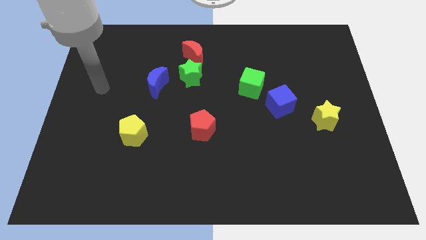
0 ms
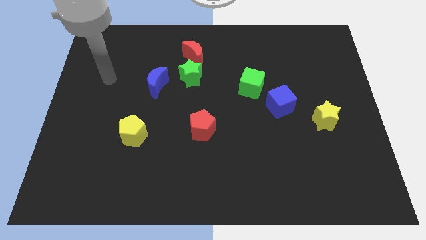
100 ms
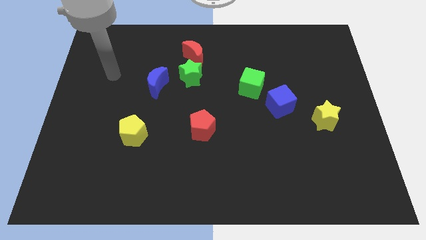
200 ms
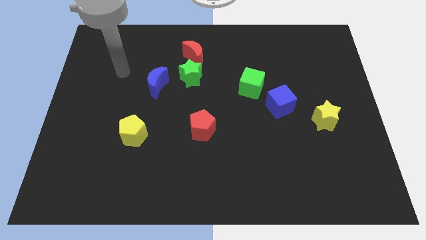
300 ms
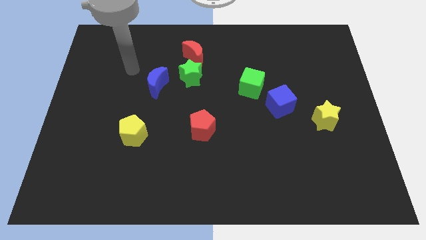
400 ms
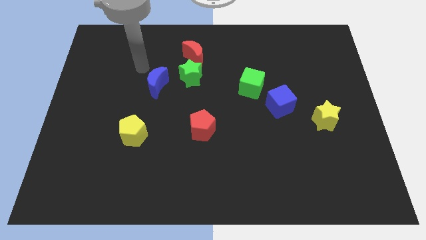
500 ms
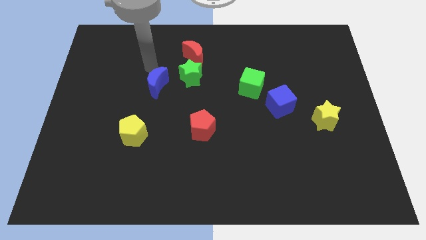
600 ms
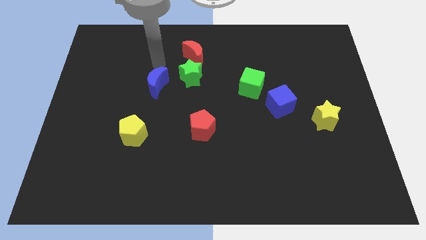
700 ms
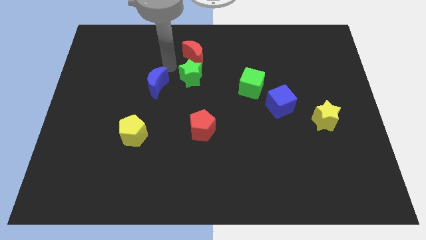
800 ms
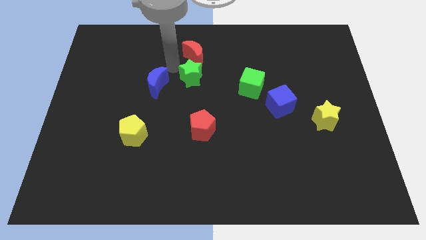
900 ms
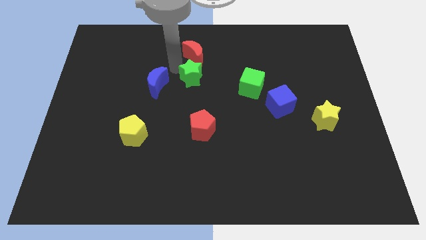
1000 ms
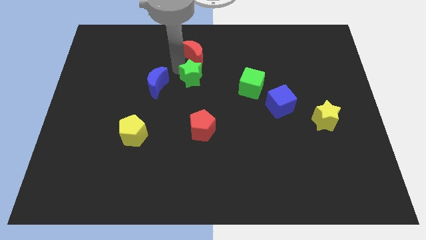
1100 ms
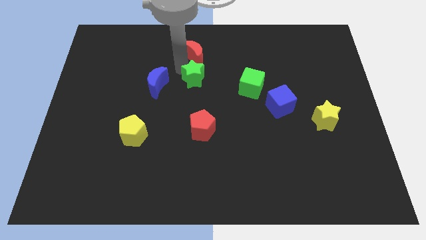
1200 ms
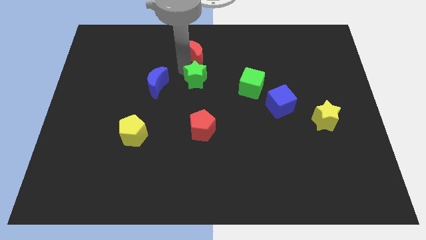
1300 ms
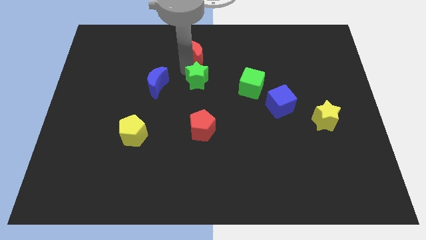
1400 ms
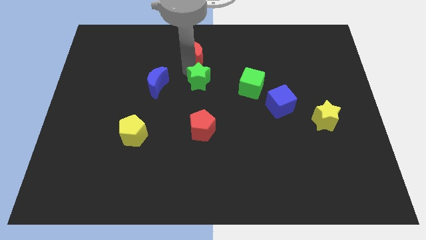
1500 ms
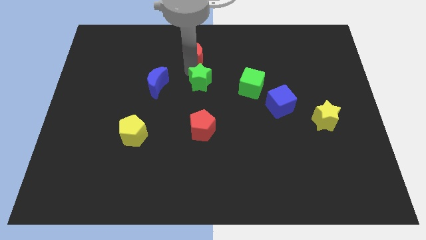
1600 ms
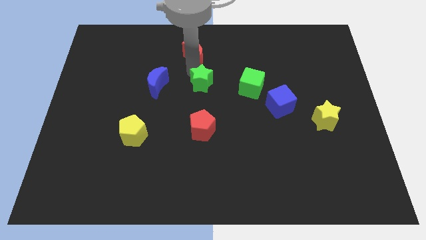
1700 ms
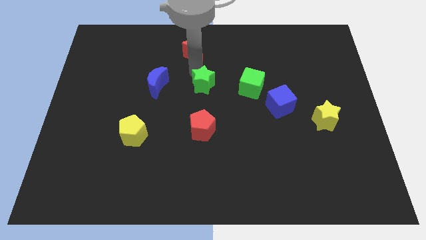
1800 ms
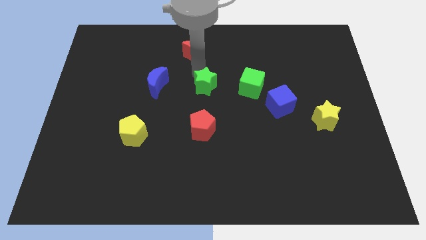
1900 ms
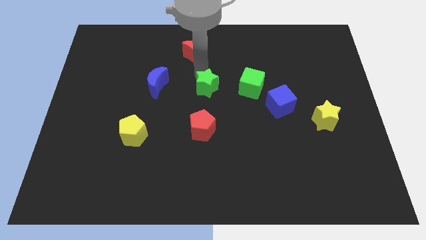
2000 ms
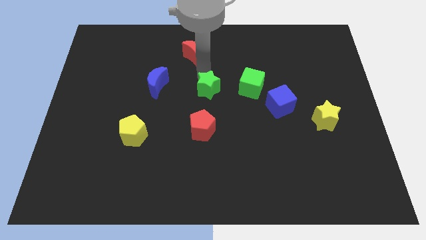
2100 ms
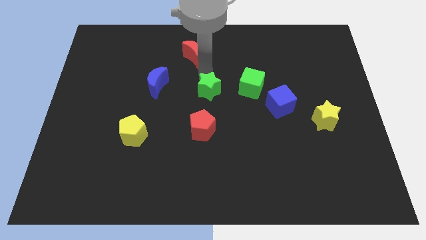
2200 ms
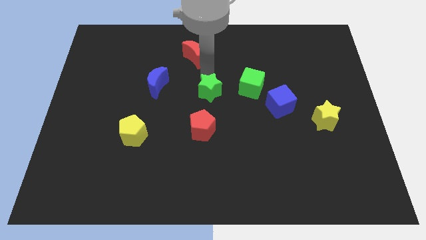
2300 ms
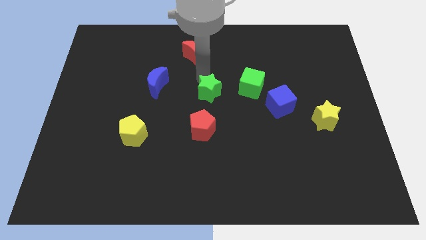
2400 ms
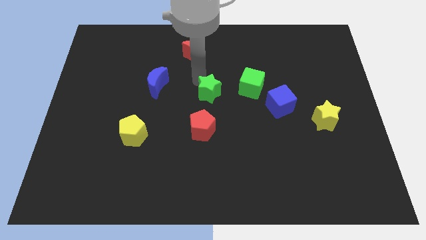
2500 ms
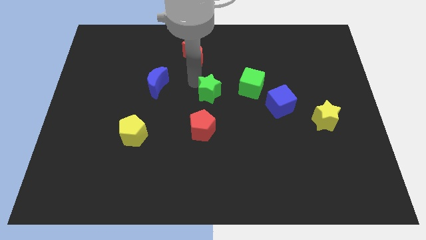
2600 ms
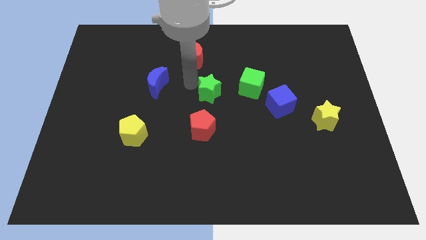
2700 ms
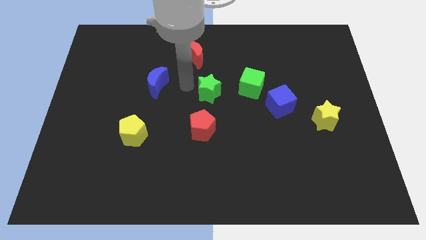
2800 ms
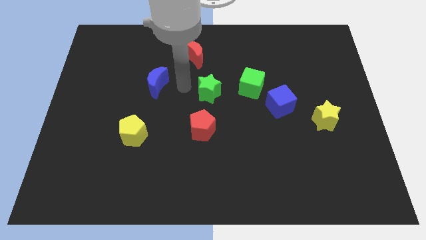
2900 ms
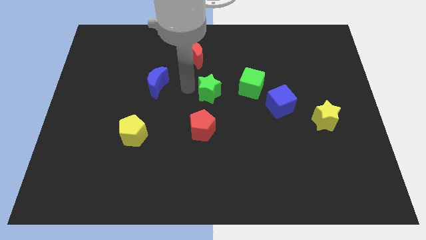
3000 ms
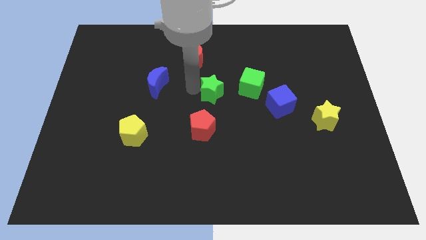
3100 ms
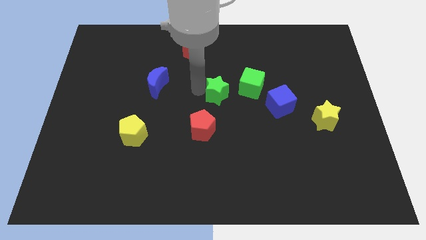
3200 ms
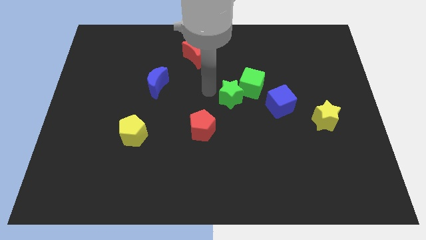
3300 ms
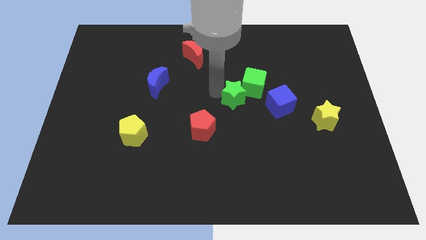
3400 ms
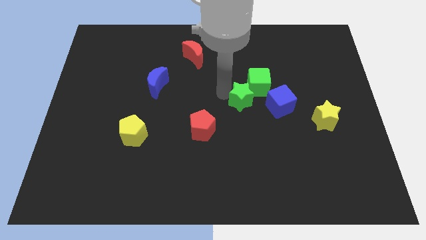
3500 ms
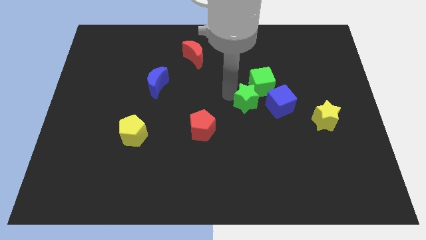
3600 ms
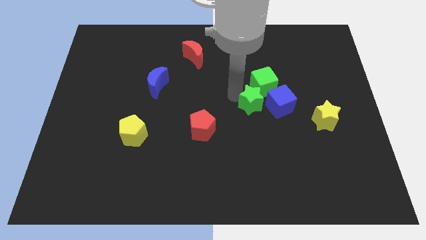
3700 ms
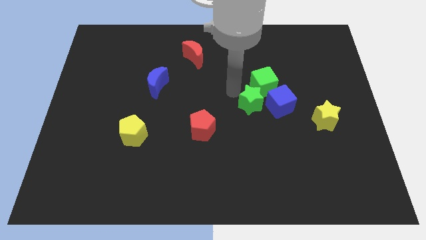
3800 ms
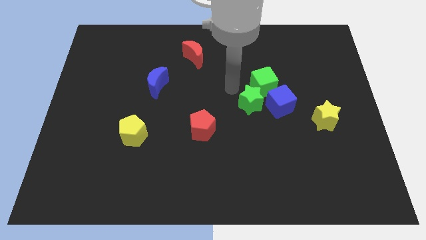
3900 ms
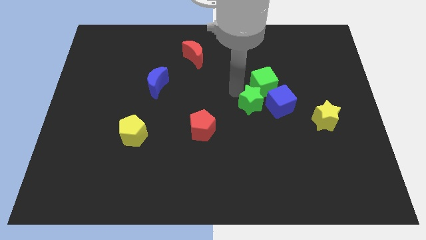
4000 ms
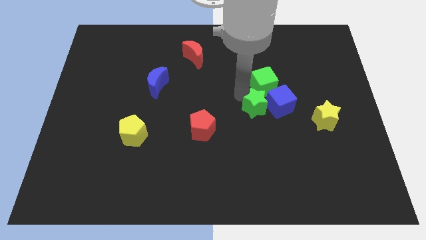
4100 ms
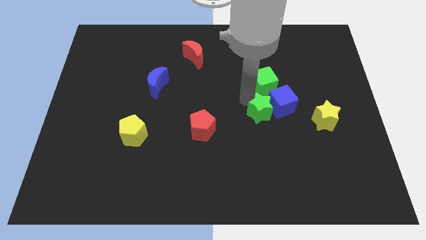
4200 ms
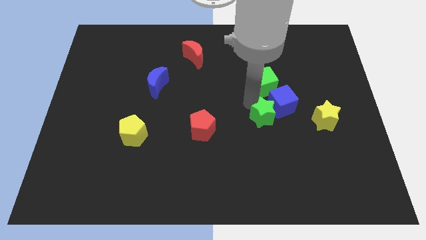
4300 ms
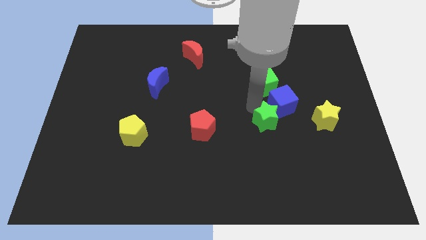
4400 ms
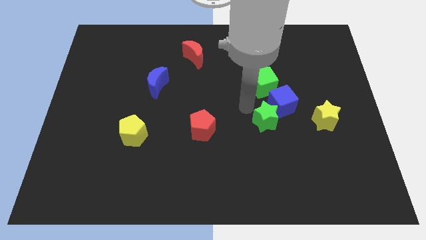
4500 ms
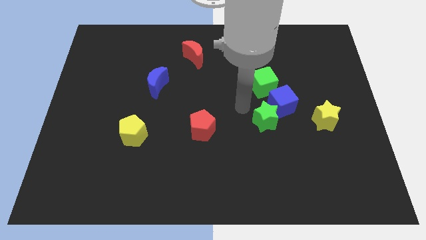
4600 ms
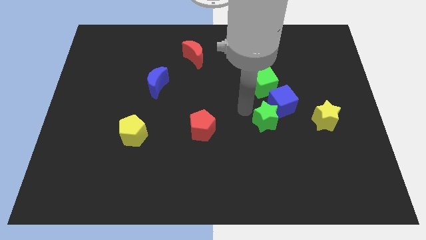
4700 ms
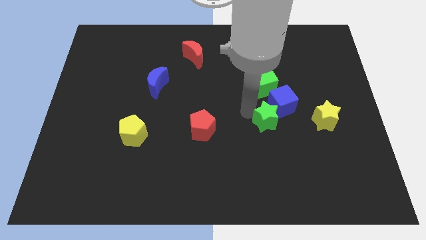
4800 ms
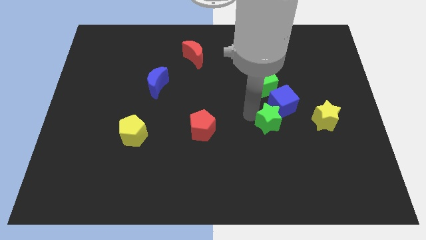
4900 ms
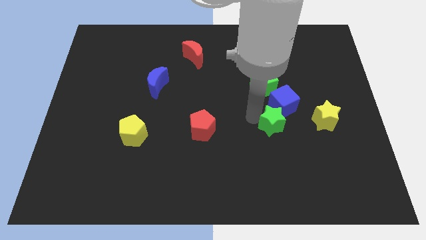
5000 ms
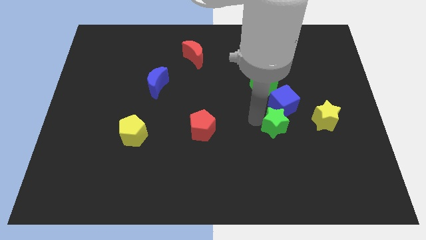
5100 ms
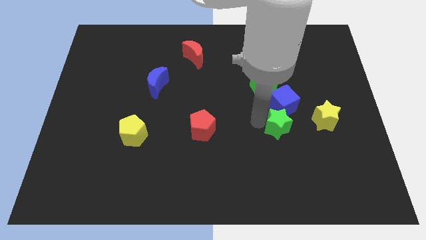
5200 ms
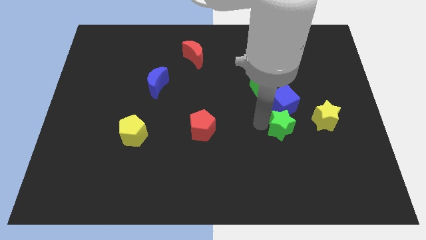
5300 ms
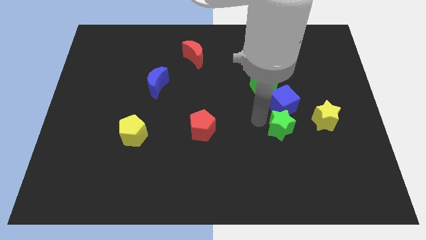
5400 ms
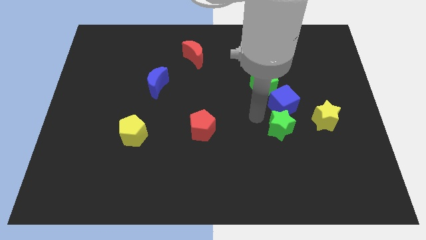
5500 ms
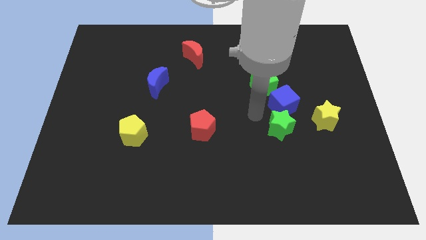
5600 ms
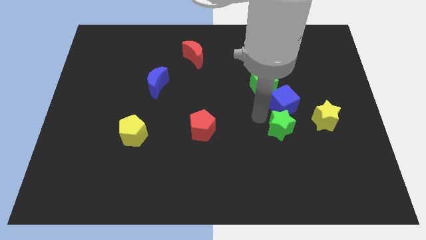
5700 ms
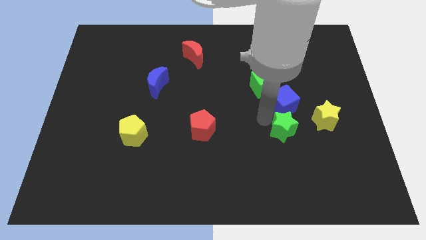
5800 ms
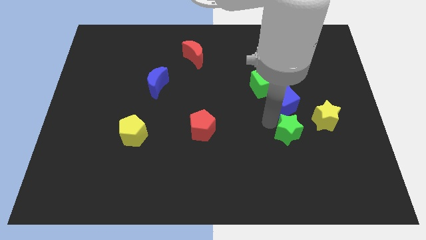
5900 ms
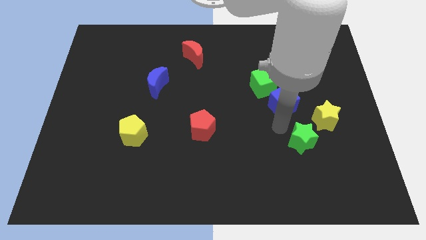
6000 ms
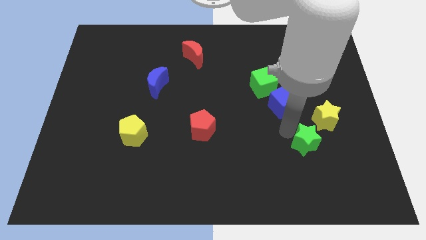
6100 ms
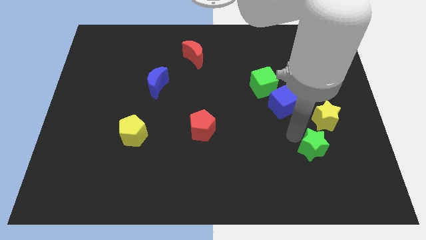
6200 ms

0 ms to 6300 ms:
put the green star to the bottom of the yellow star

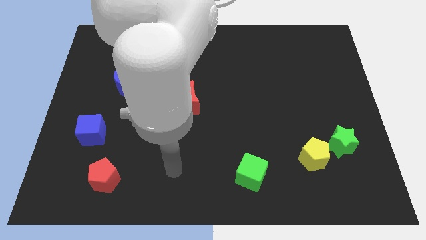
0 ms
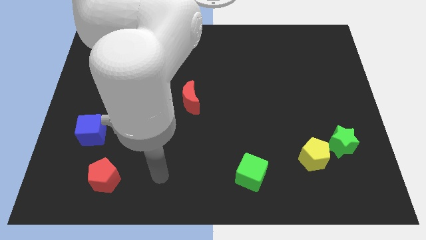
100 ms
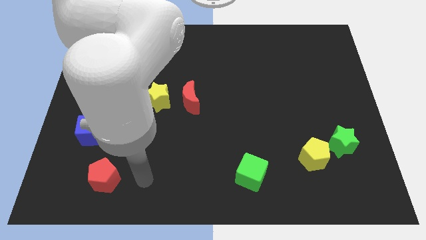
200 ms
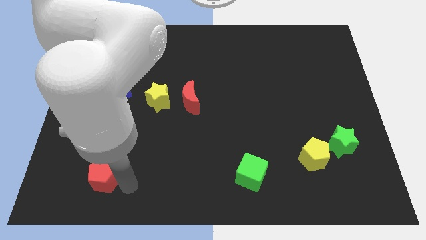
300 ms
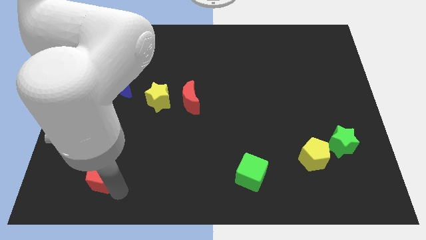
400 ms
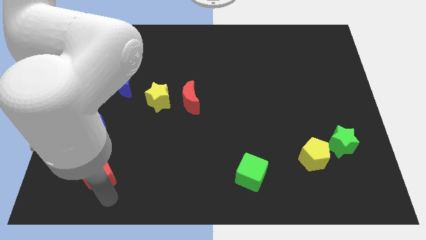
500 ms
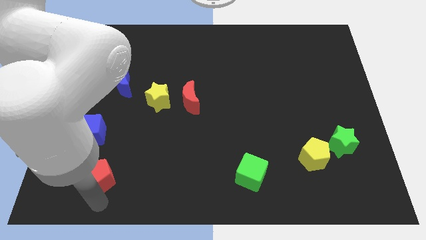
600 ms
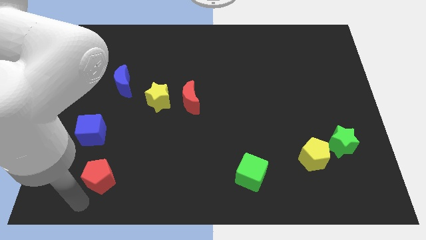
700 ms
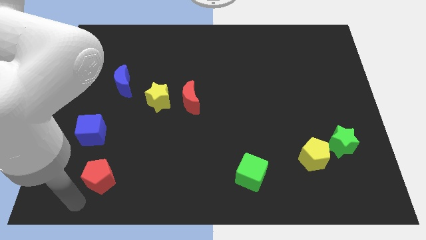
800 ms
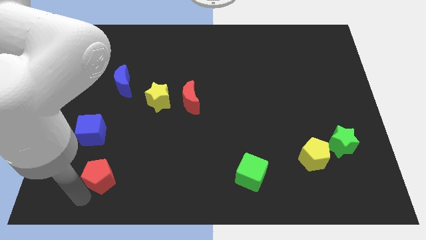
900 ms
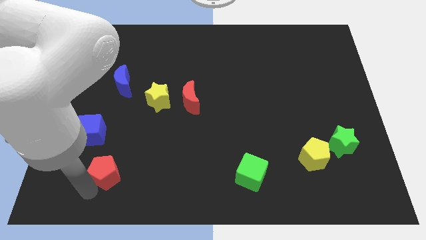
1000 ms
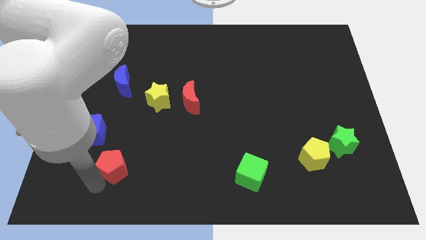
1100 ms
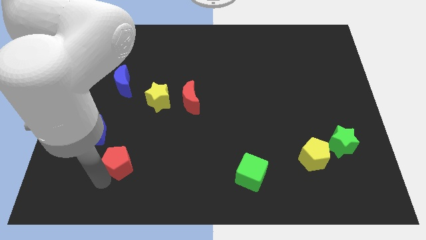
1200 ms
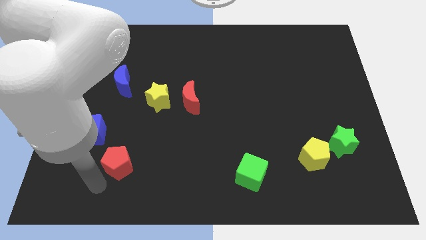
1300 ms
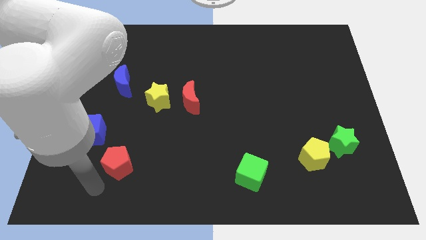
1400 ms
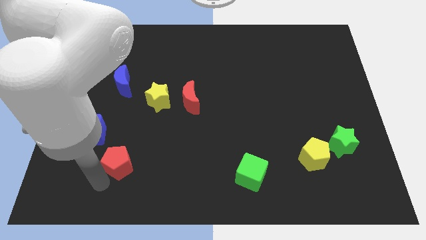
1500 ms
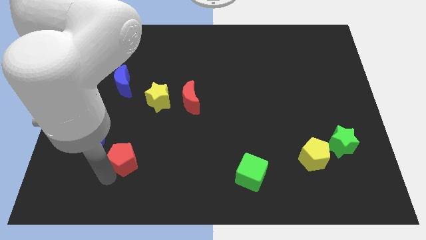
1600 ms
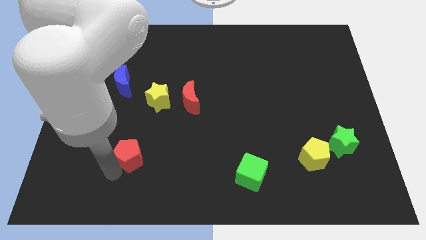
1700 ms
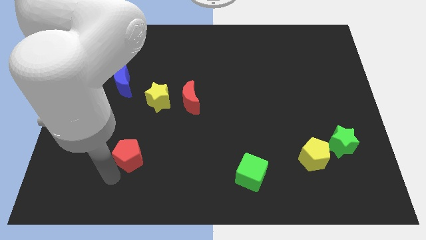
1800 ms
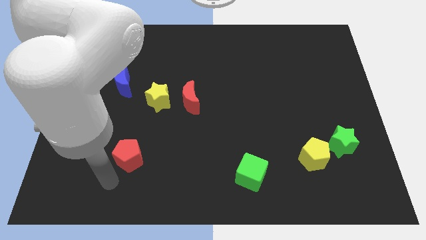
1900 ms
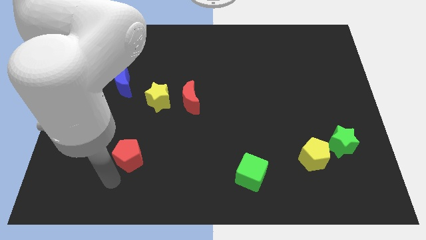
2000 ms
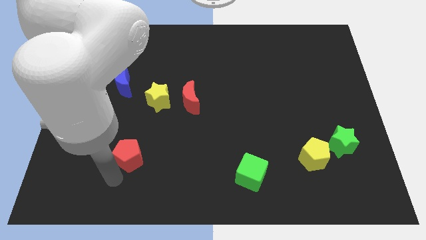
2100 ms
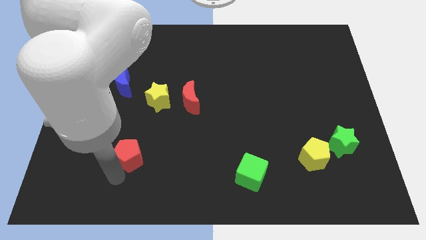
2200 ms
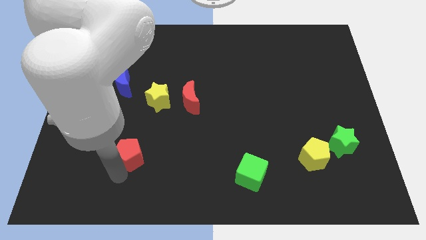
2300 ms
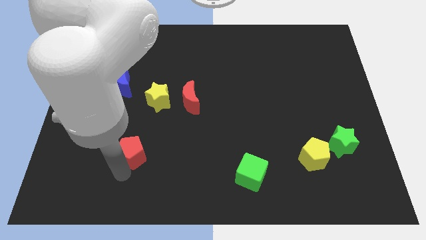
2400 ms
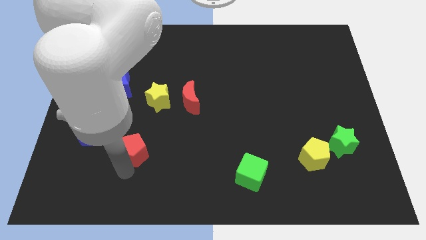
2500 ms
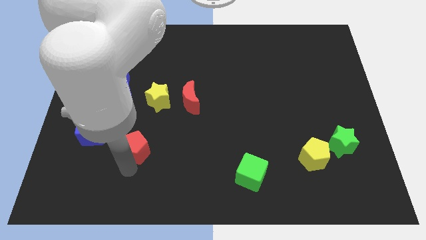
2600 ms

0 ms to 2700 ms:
move the red pentagon to the bottom of the yellow star
